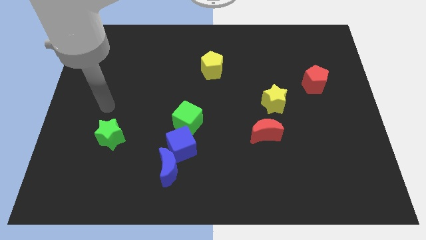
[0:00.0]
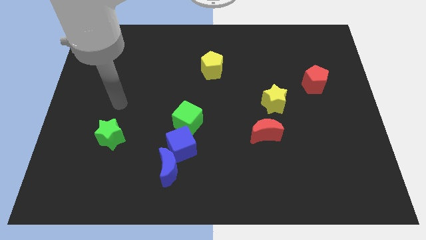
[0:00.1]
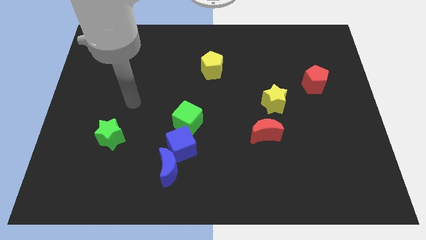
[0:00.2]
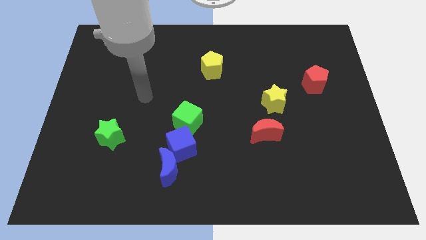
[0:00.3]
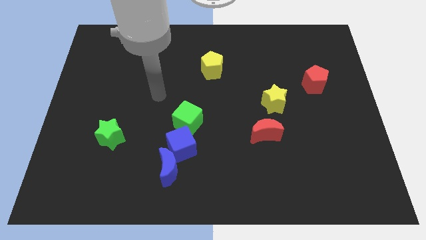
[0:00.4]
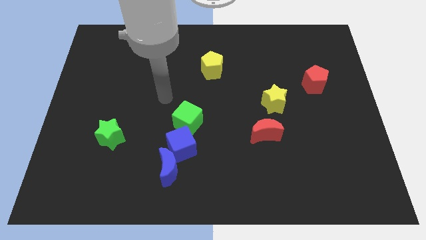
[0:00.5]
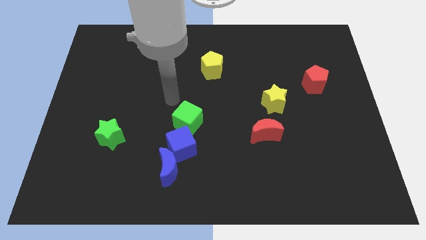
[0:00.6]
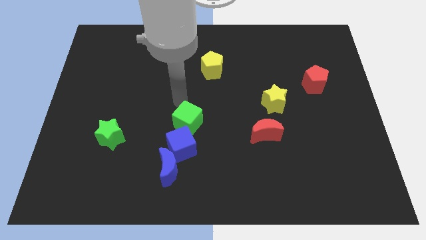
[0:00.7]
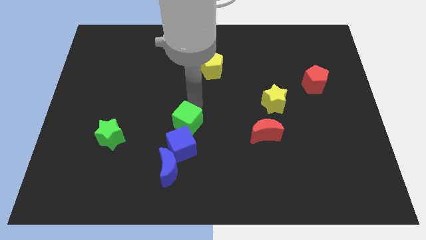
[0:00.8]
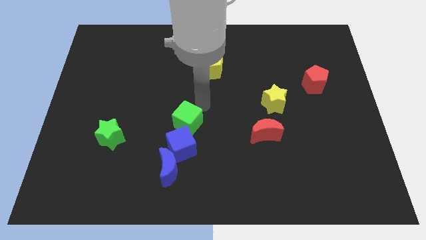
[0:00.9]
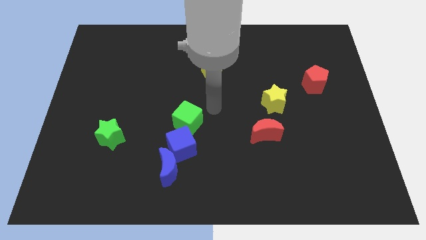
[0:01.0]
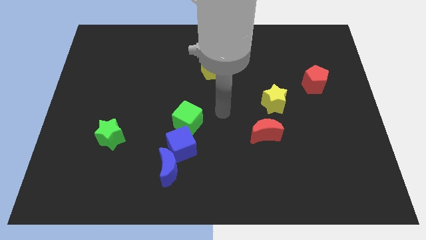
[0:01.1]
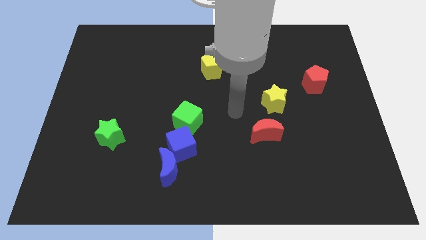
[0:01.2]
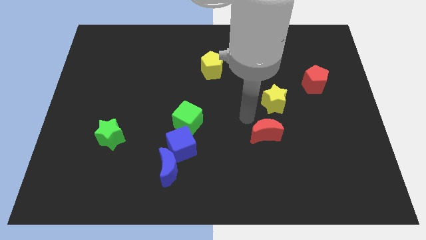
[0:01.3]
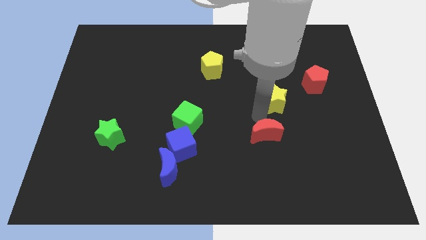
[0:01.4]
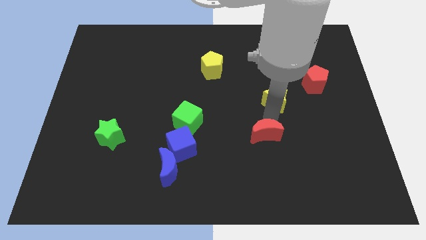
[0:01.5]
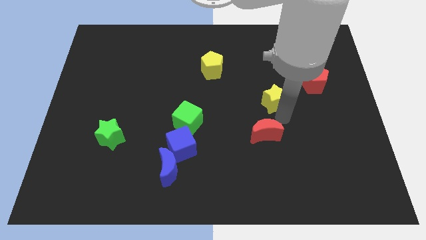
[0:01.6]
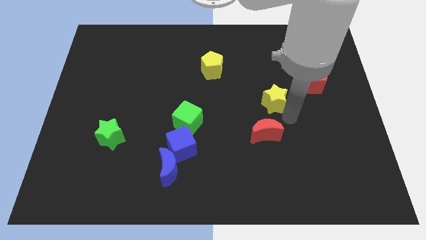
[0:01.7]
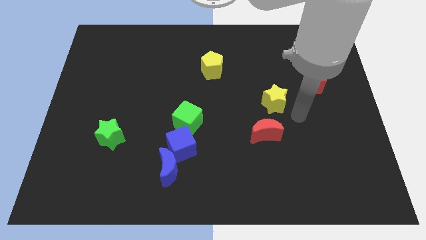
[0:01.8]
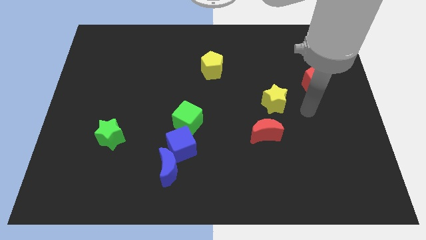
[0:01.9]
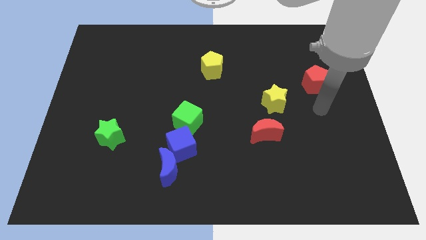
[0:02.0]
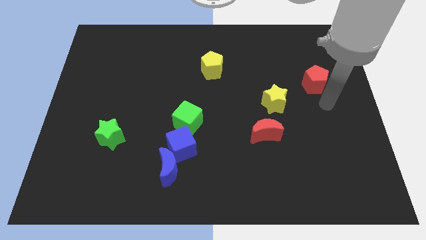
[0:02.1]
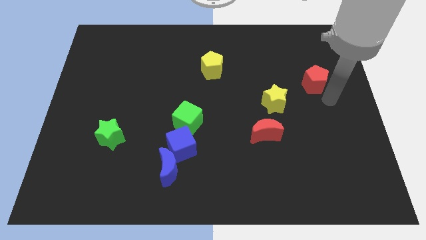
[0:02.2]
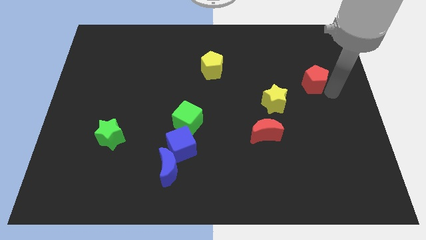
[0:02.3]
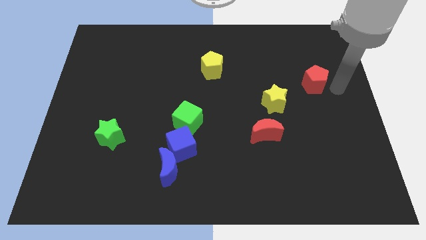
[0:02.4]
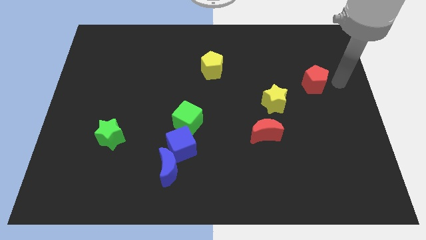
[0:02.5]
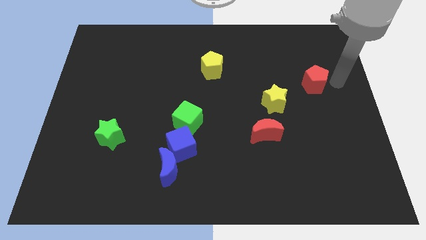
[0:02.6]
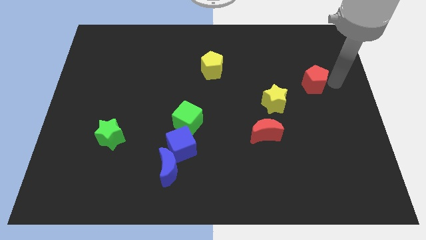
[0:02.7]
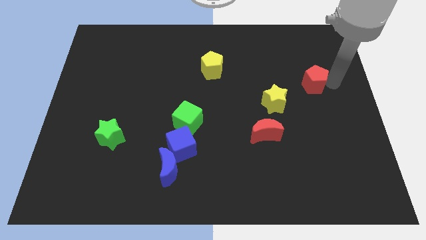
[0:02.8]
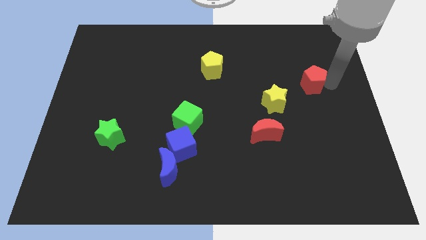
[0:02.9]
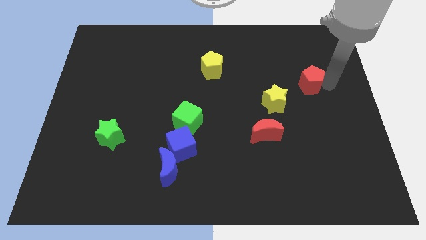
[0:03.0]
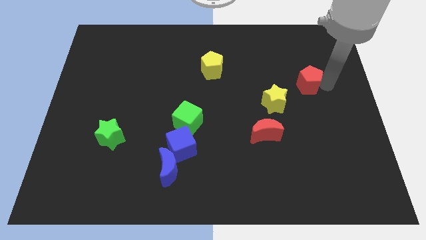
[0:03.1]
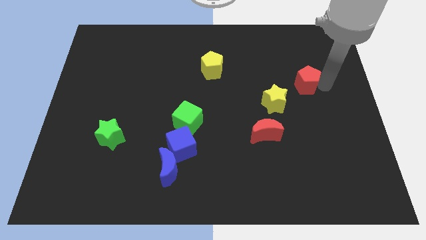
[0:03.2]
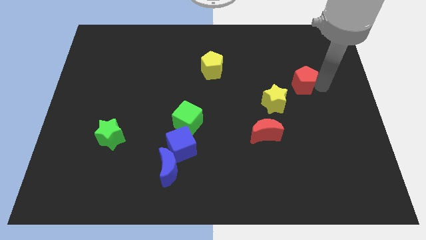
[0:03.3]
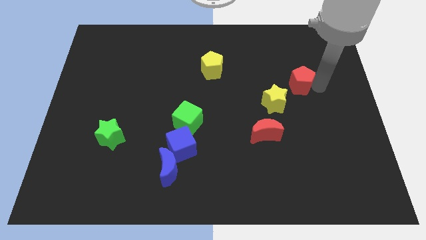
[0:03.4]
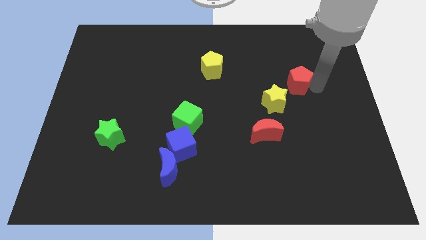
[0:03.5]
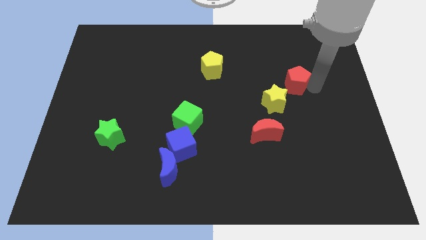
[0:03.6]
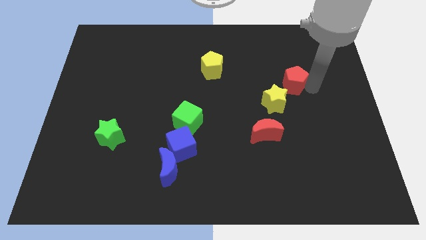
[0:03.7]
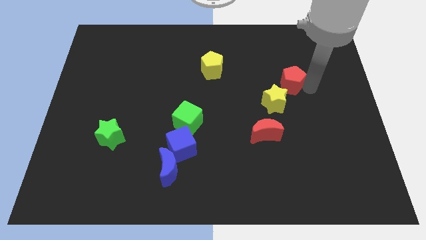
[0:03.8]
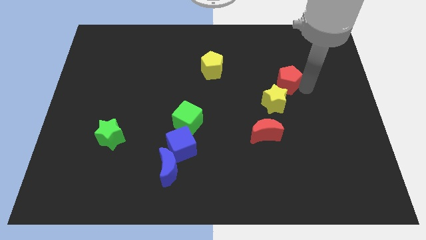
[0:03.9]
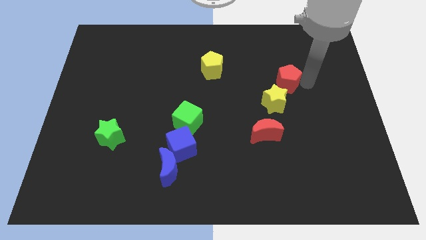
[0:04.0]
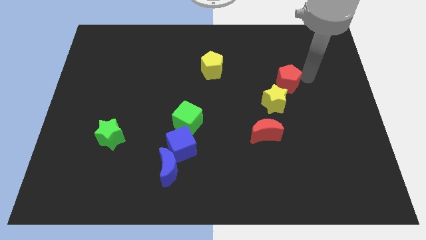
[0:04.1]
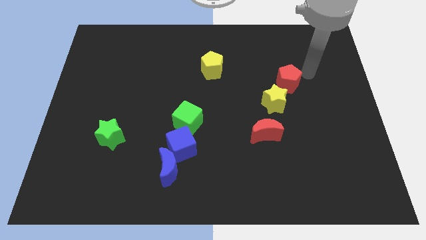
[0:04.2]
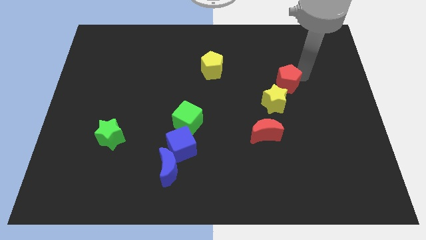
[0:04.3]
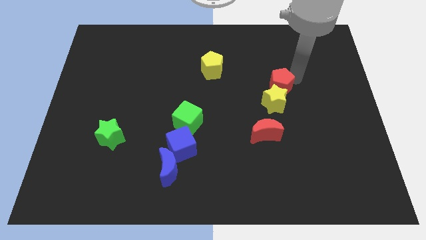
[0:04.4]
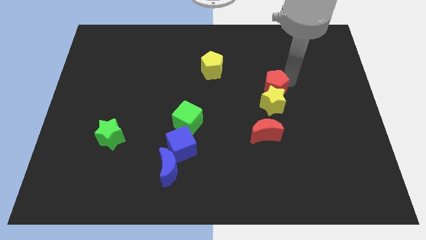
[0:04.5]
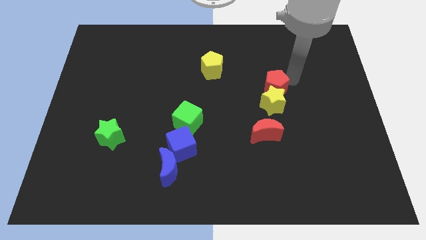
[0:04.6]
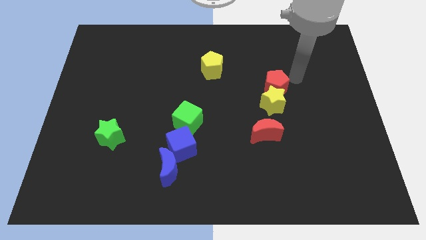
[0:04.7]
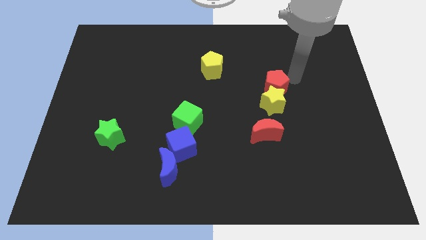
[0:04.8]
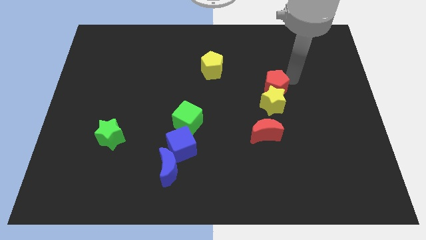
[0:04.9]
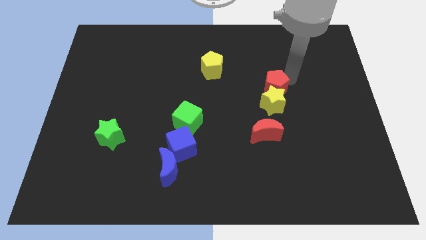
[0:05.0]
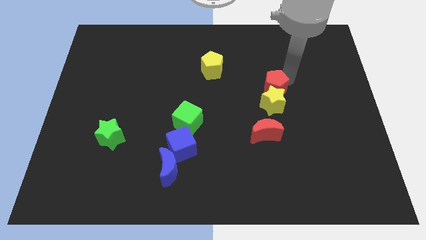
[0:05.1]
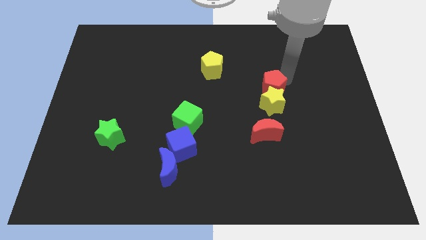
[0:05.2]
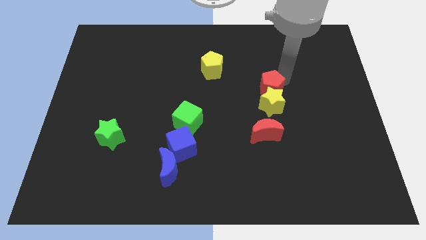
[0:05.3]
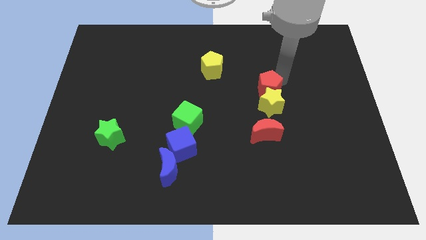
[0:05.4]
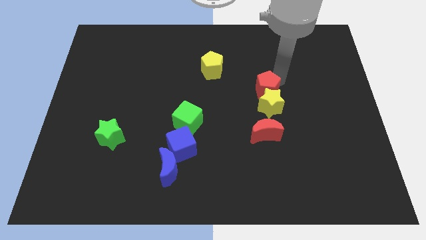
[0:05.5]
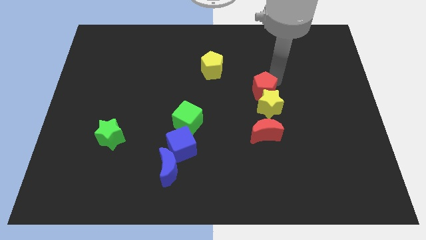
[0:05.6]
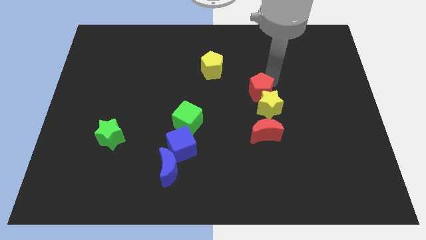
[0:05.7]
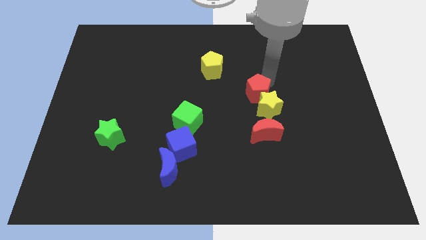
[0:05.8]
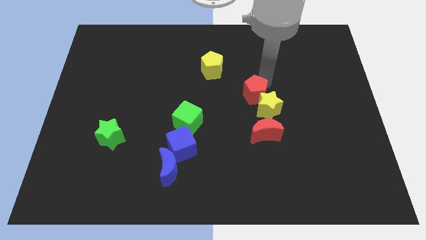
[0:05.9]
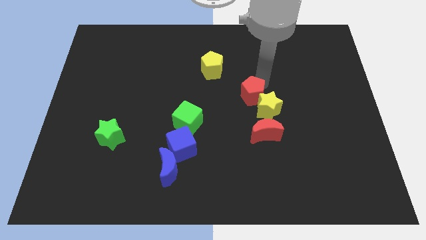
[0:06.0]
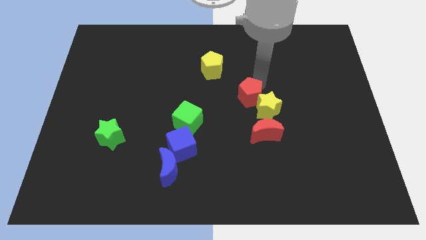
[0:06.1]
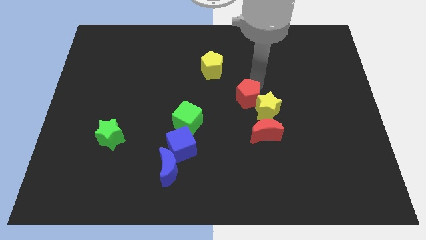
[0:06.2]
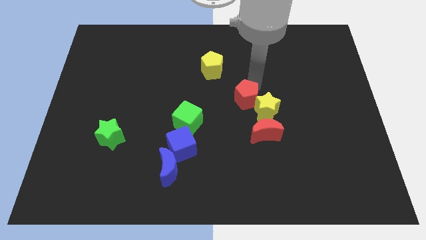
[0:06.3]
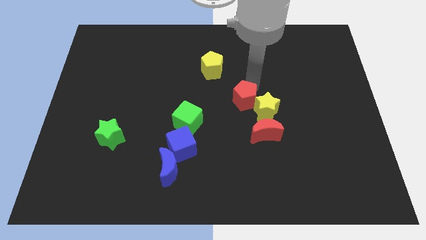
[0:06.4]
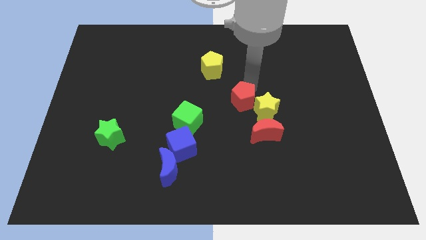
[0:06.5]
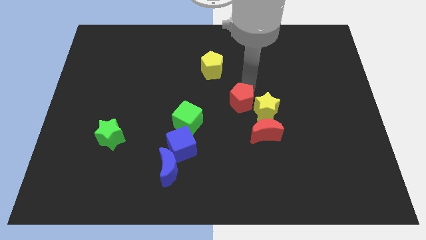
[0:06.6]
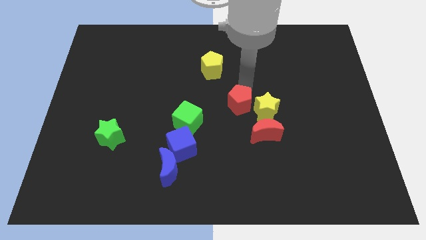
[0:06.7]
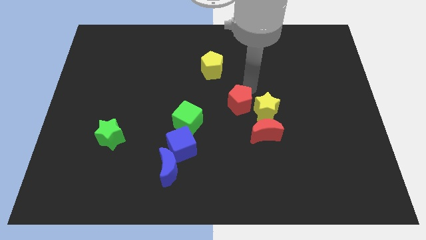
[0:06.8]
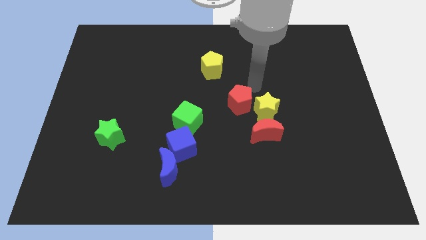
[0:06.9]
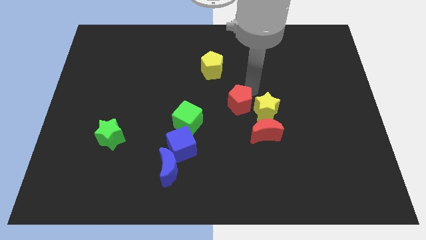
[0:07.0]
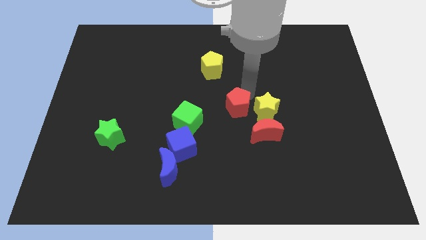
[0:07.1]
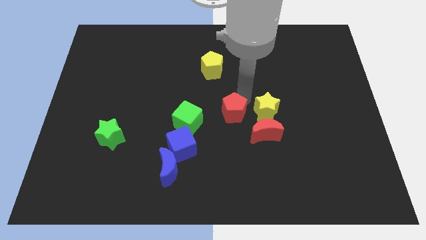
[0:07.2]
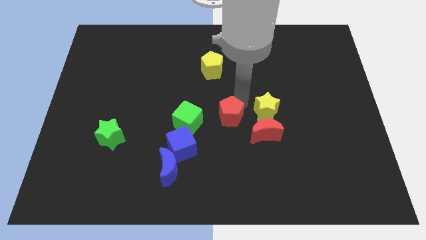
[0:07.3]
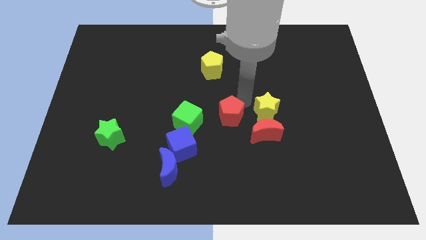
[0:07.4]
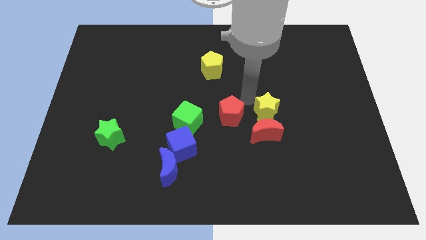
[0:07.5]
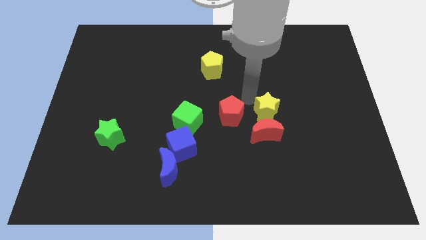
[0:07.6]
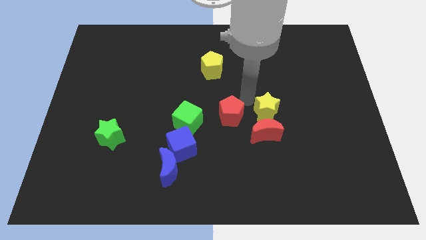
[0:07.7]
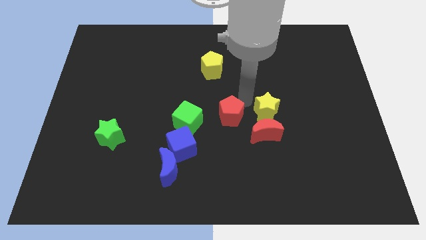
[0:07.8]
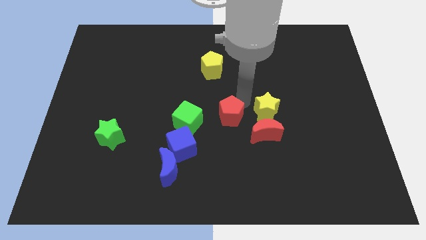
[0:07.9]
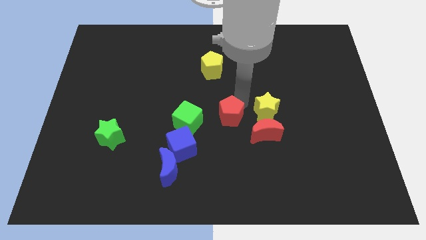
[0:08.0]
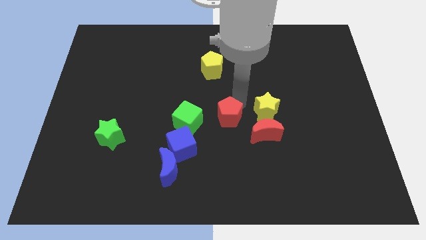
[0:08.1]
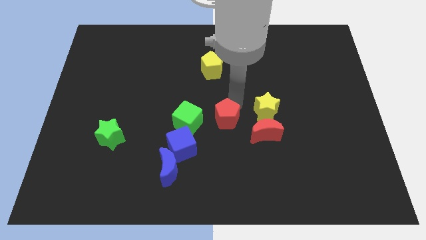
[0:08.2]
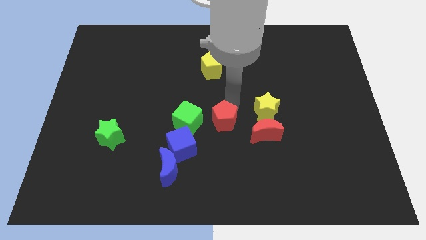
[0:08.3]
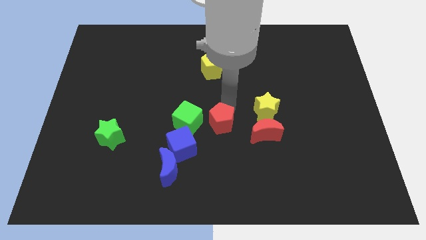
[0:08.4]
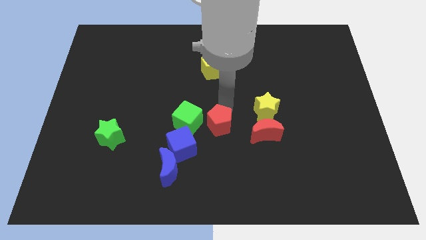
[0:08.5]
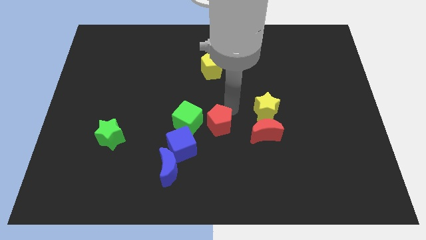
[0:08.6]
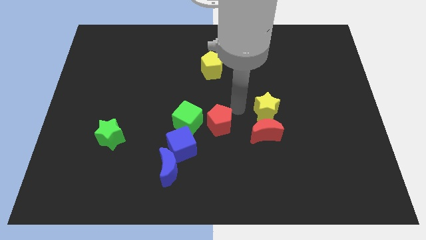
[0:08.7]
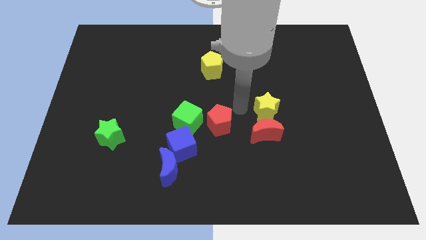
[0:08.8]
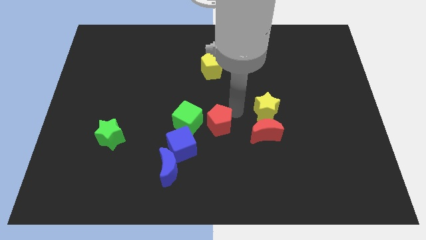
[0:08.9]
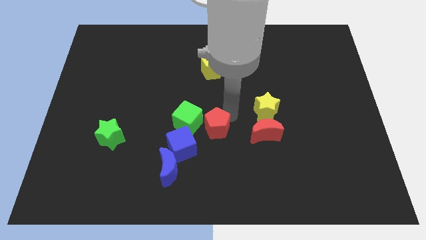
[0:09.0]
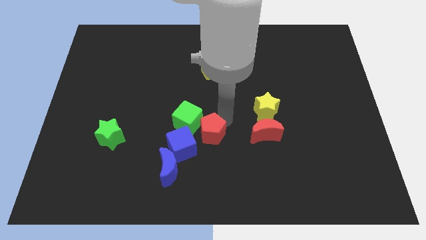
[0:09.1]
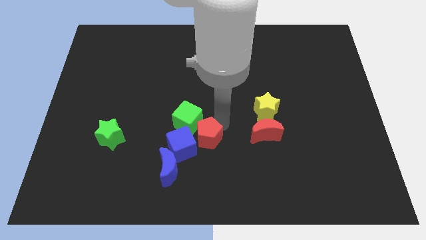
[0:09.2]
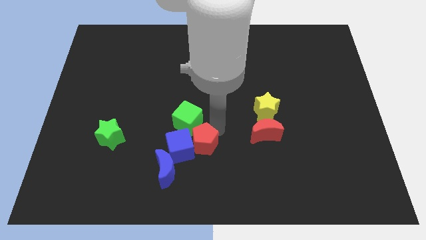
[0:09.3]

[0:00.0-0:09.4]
put the red pentagon towards the blue cube
